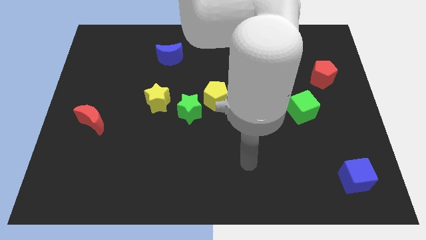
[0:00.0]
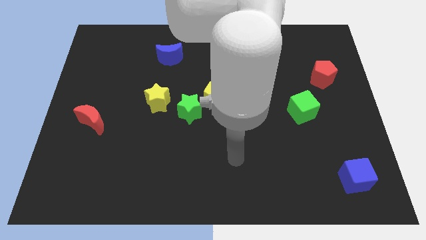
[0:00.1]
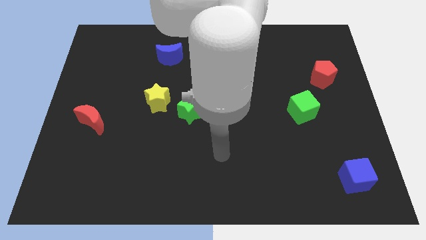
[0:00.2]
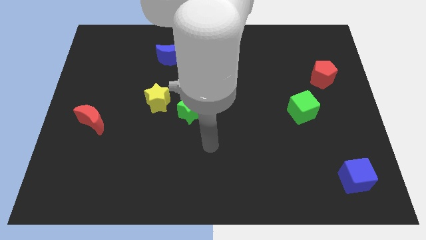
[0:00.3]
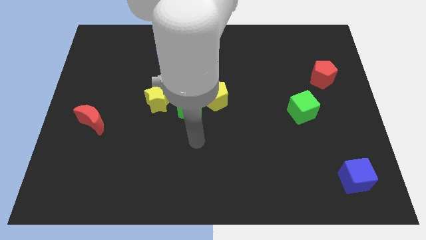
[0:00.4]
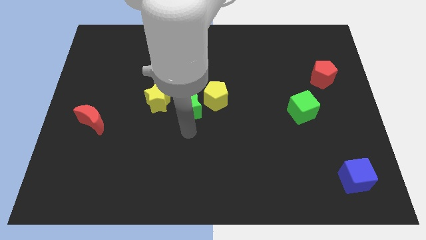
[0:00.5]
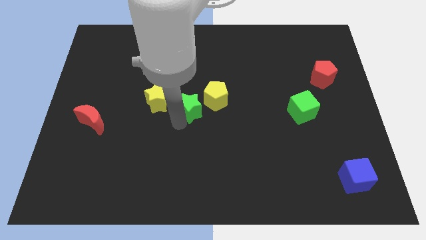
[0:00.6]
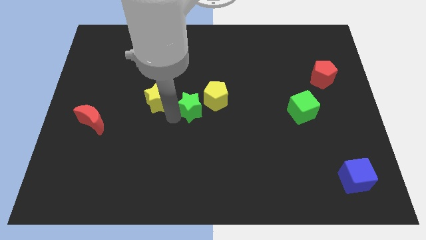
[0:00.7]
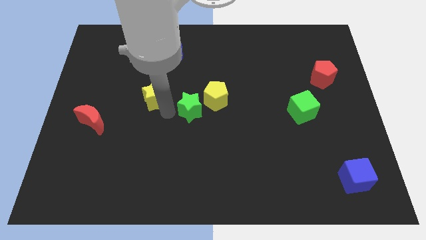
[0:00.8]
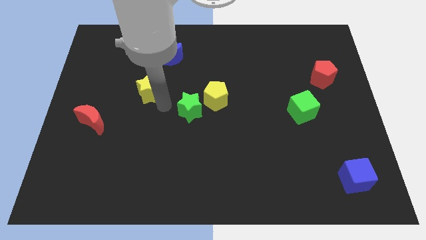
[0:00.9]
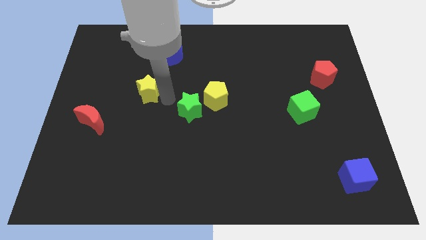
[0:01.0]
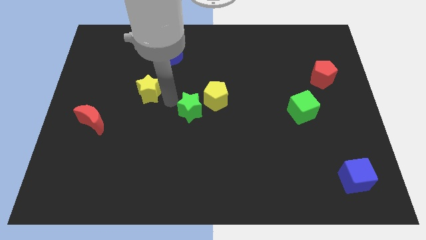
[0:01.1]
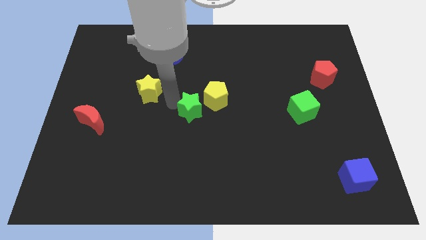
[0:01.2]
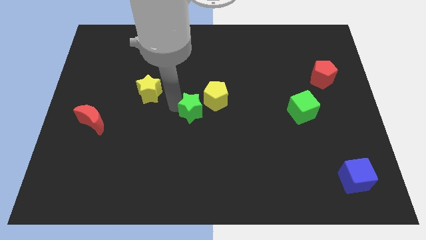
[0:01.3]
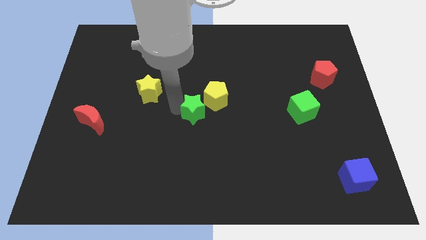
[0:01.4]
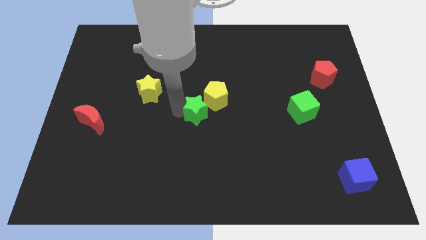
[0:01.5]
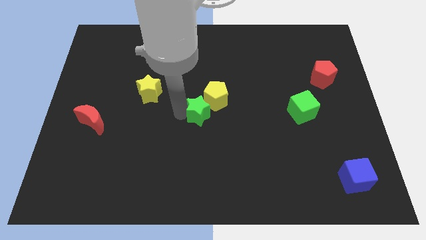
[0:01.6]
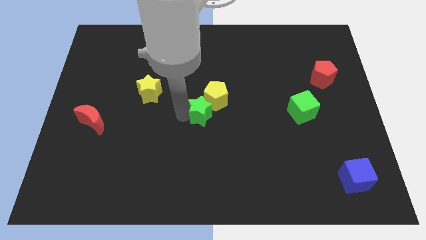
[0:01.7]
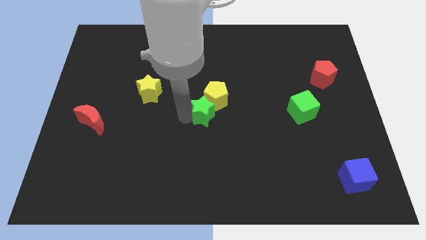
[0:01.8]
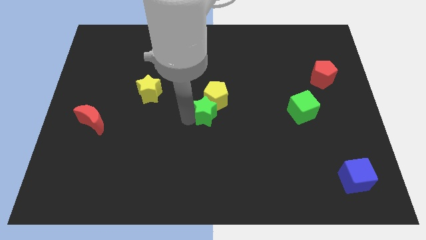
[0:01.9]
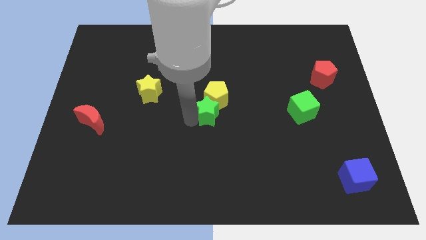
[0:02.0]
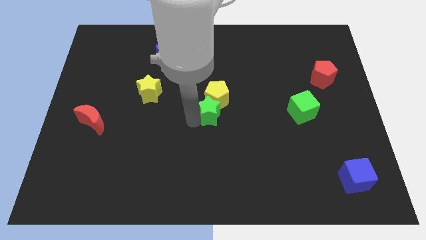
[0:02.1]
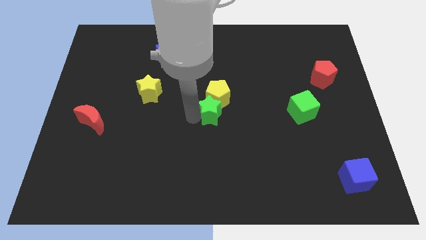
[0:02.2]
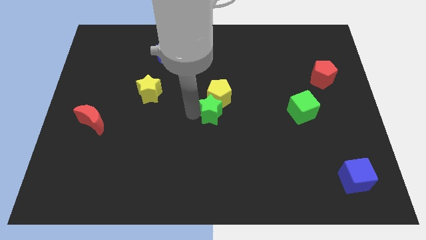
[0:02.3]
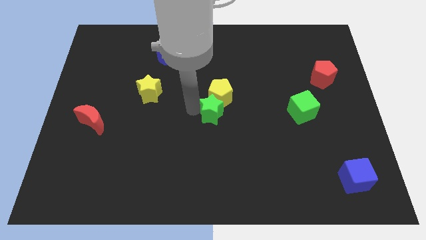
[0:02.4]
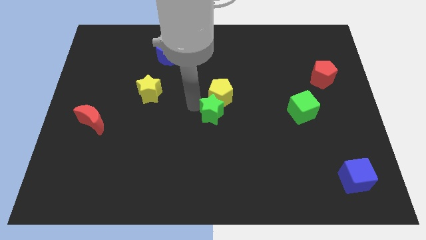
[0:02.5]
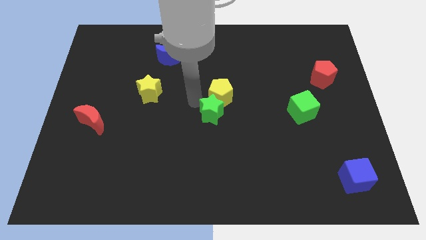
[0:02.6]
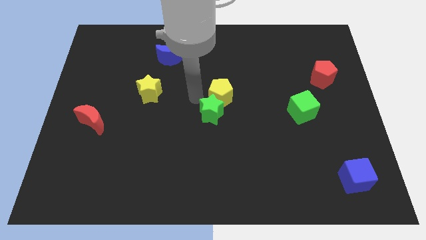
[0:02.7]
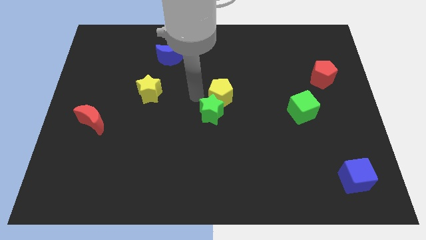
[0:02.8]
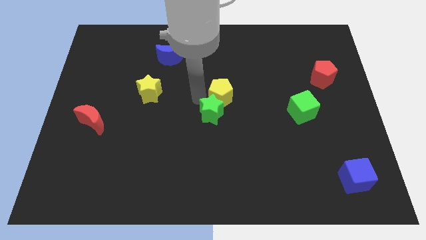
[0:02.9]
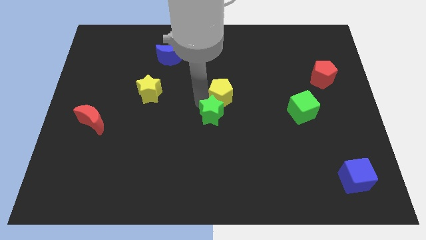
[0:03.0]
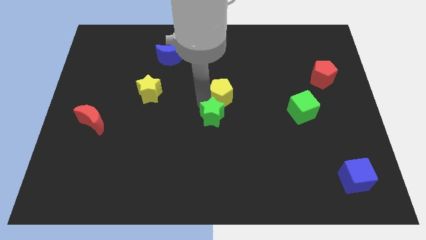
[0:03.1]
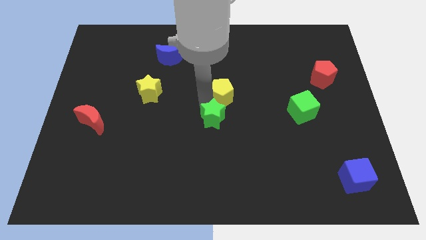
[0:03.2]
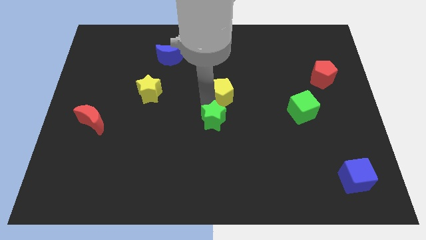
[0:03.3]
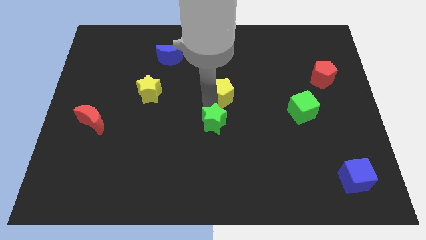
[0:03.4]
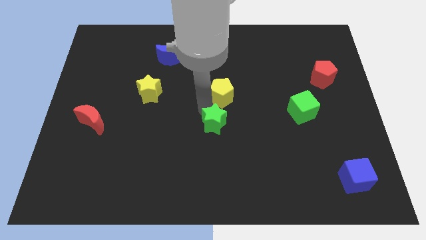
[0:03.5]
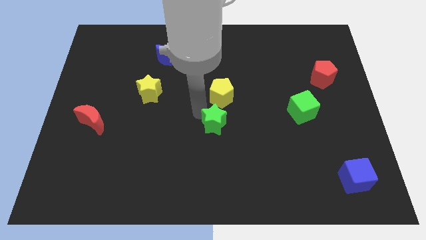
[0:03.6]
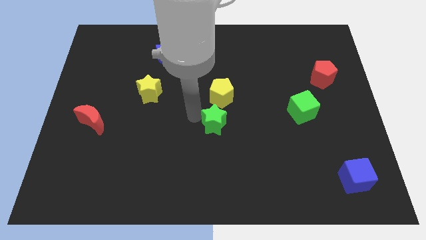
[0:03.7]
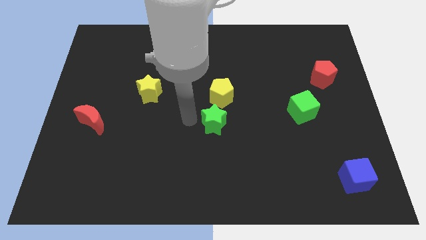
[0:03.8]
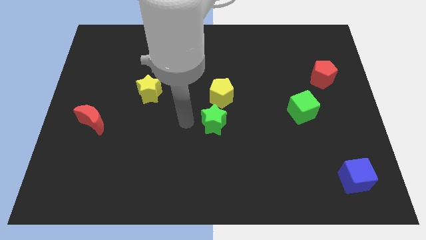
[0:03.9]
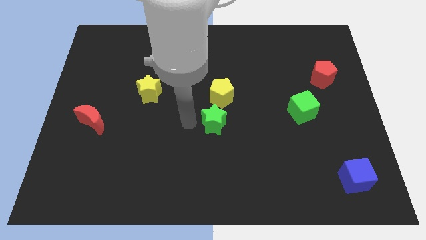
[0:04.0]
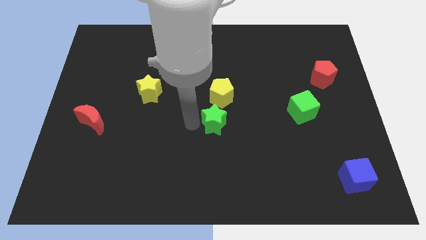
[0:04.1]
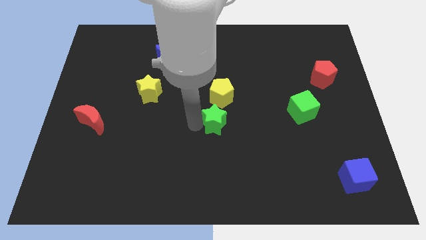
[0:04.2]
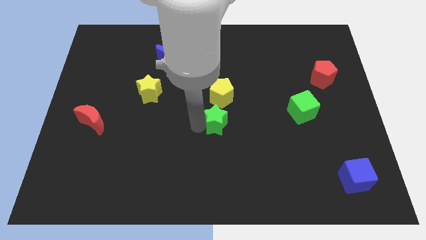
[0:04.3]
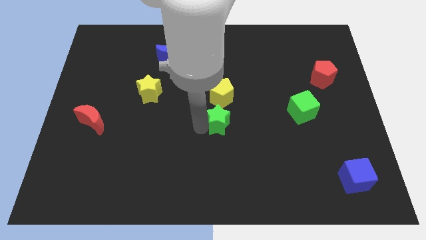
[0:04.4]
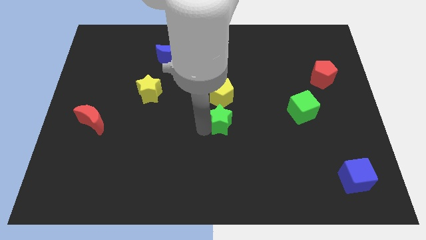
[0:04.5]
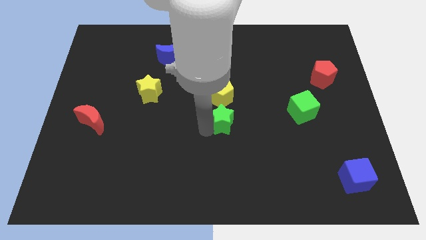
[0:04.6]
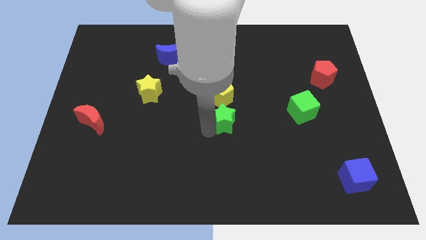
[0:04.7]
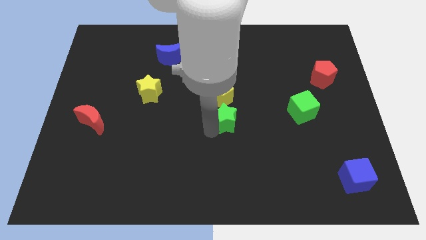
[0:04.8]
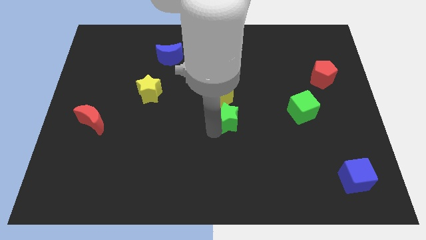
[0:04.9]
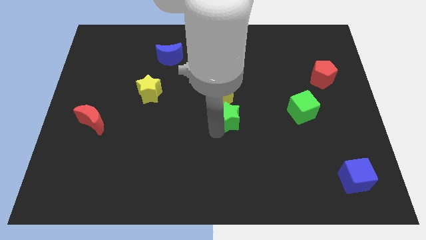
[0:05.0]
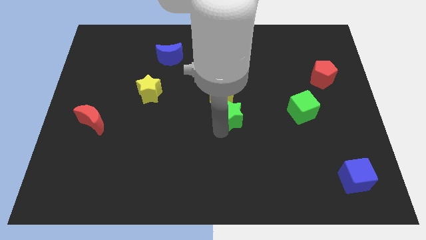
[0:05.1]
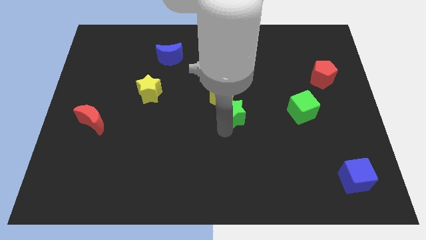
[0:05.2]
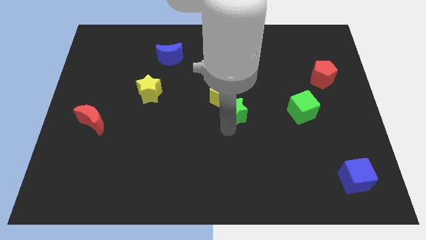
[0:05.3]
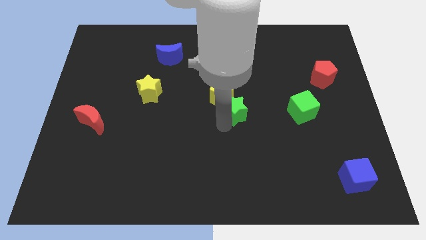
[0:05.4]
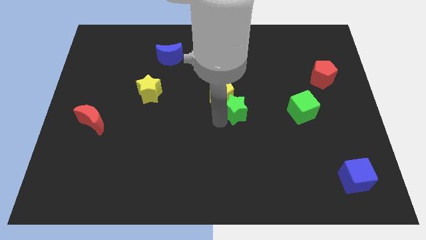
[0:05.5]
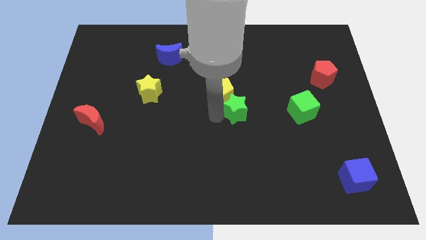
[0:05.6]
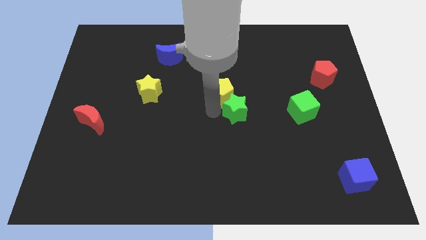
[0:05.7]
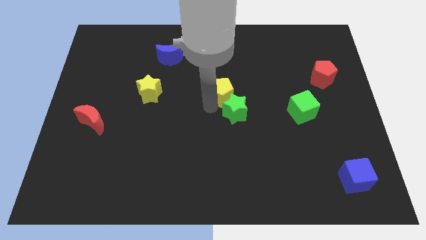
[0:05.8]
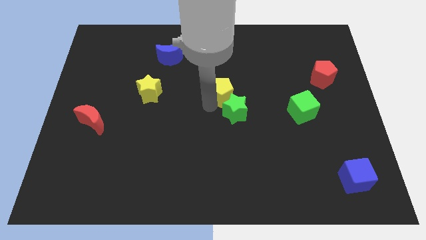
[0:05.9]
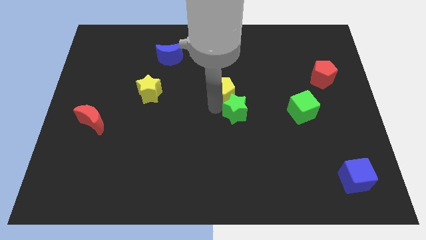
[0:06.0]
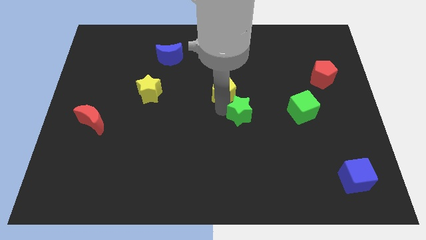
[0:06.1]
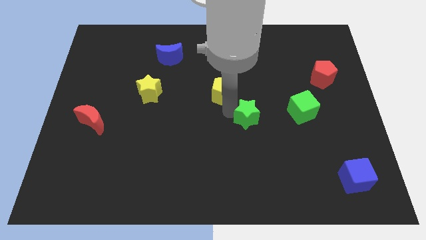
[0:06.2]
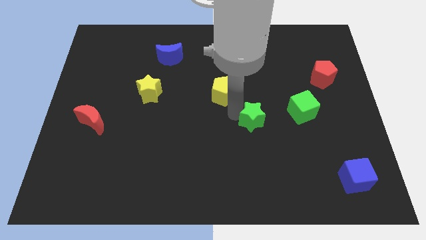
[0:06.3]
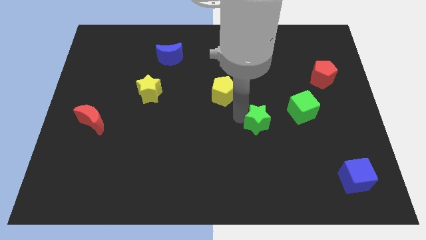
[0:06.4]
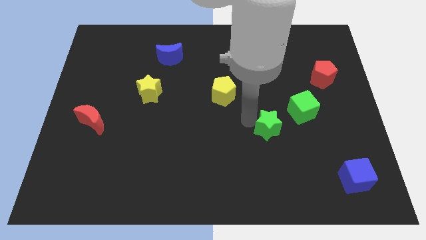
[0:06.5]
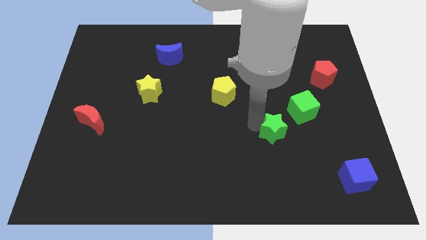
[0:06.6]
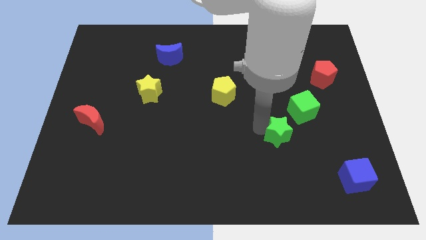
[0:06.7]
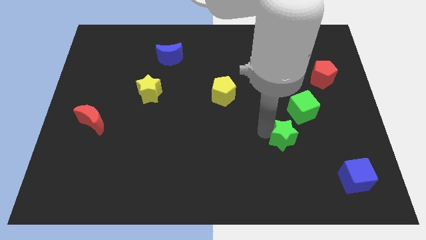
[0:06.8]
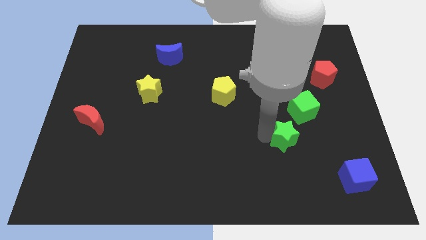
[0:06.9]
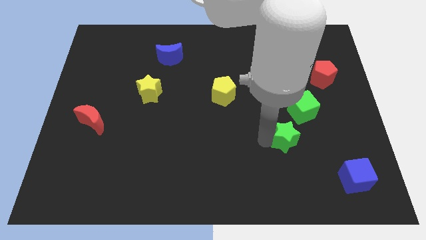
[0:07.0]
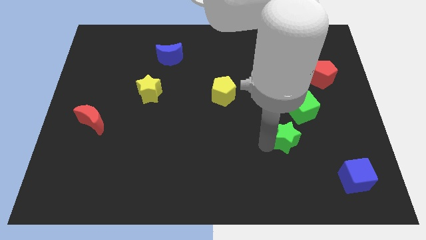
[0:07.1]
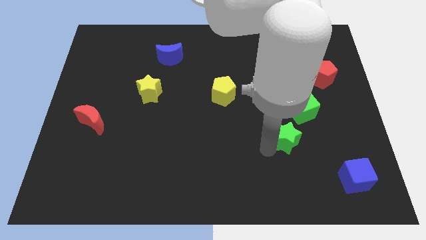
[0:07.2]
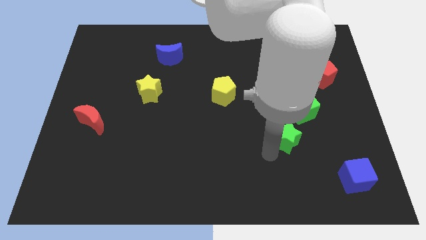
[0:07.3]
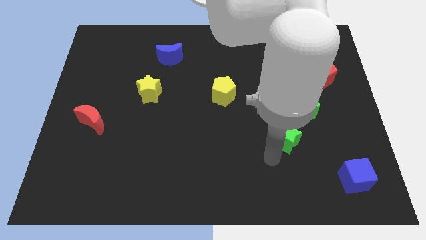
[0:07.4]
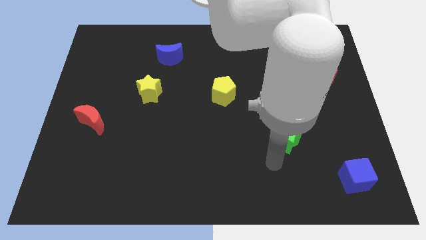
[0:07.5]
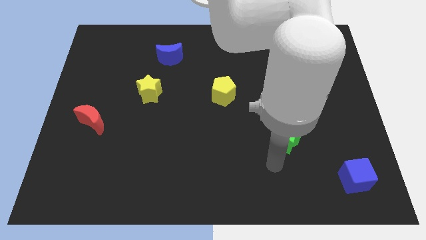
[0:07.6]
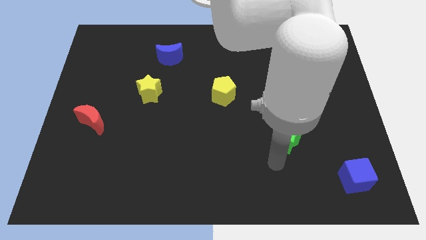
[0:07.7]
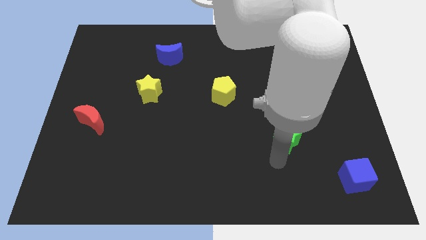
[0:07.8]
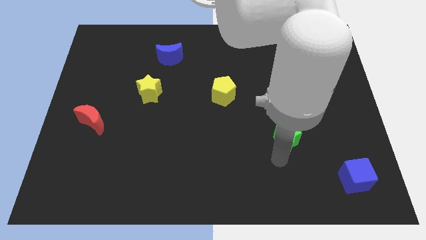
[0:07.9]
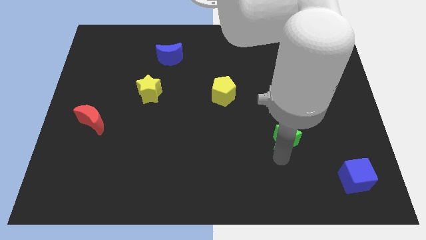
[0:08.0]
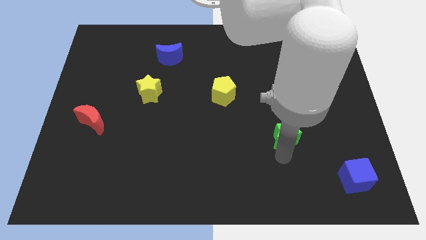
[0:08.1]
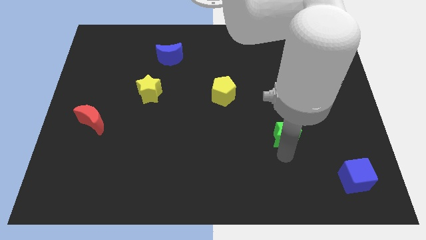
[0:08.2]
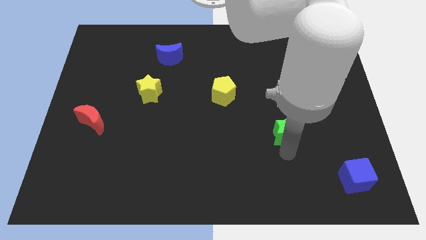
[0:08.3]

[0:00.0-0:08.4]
move the green star to the right
